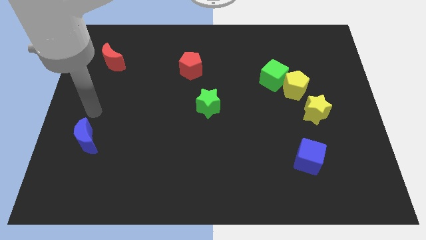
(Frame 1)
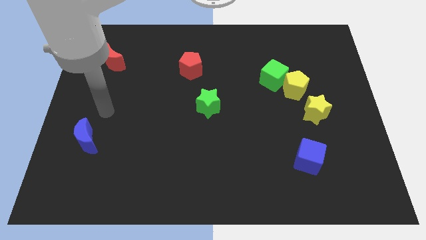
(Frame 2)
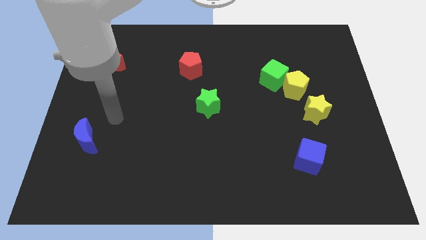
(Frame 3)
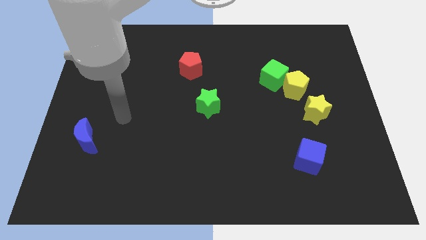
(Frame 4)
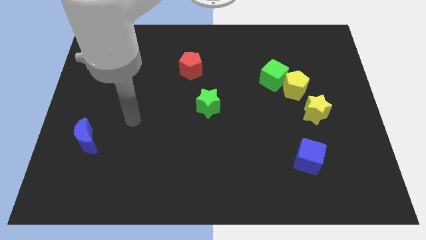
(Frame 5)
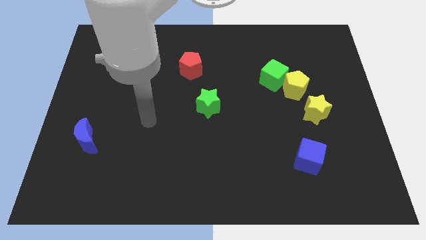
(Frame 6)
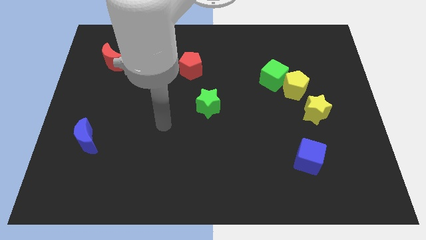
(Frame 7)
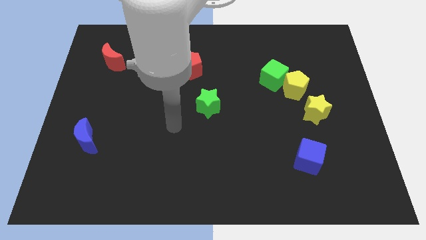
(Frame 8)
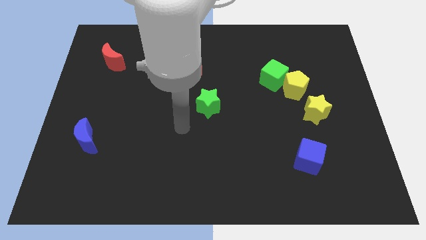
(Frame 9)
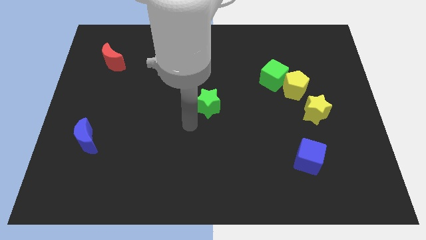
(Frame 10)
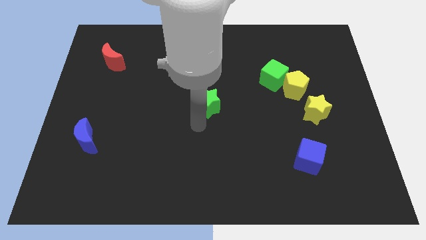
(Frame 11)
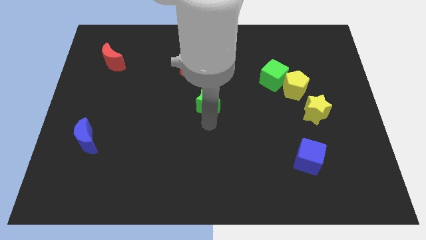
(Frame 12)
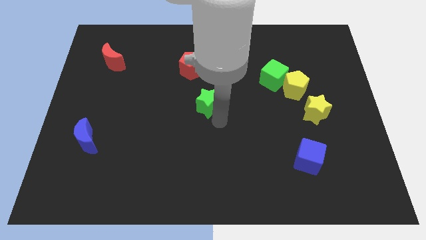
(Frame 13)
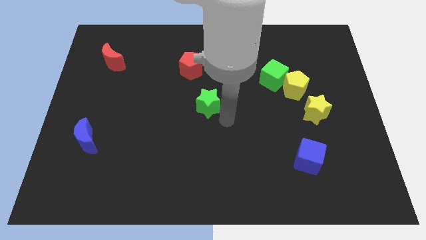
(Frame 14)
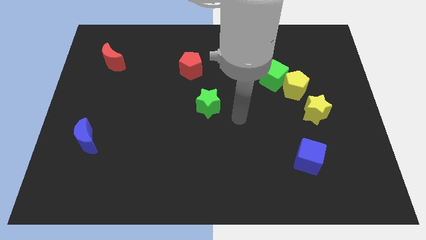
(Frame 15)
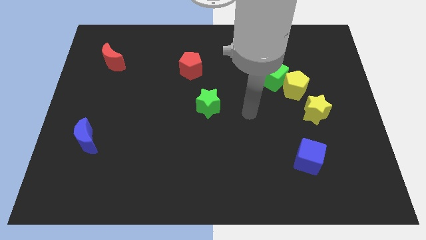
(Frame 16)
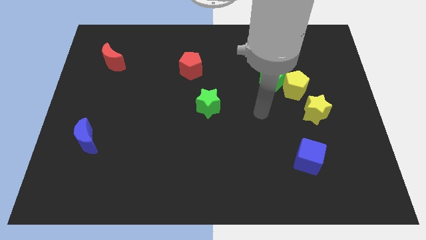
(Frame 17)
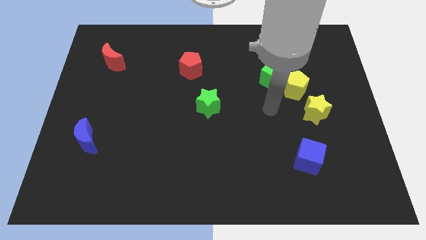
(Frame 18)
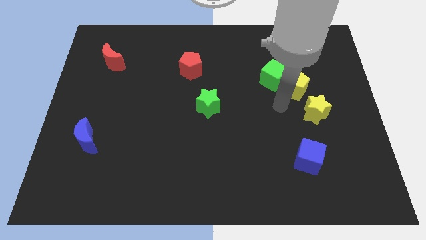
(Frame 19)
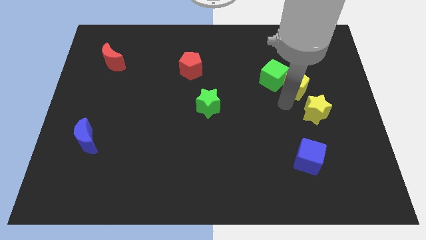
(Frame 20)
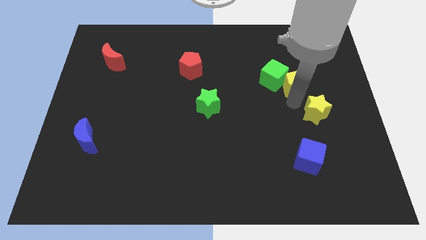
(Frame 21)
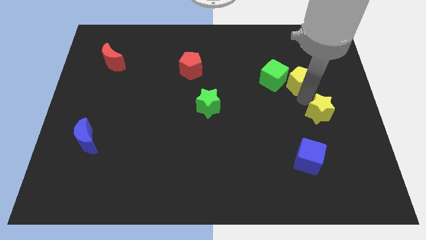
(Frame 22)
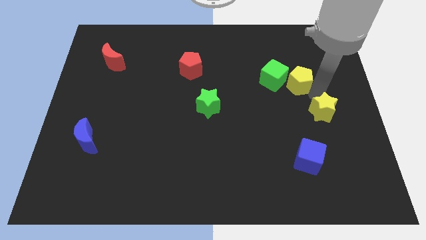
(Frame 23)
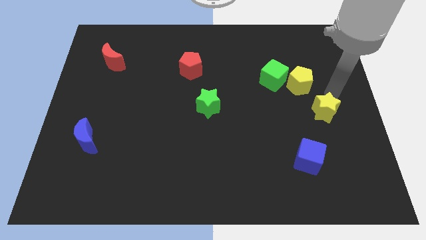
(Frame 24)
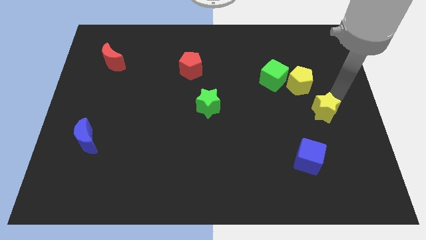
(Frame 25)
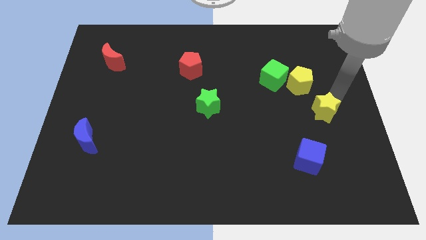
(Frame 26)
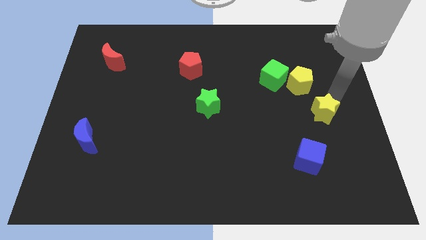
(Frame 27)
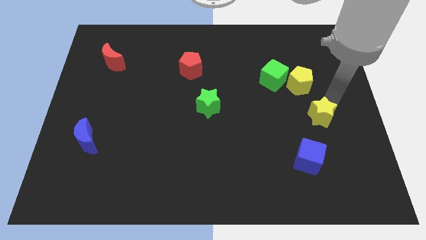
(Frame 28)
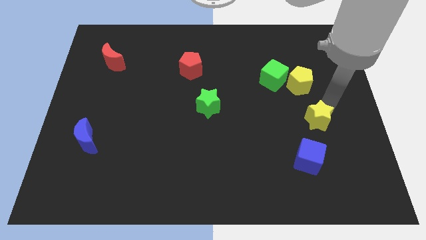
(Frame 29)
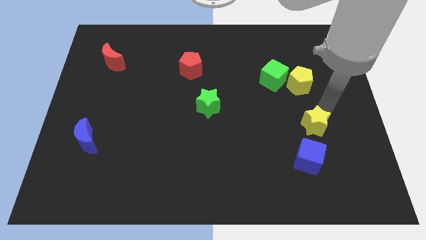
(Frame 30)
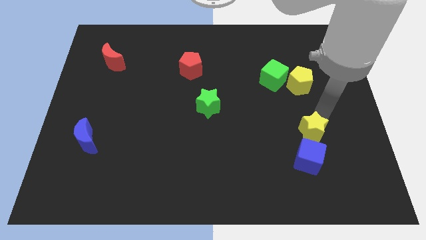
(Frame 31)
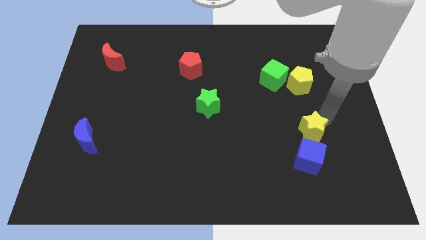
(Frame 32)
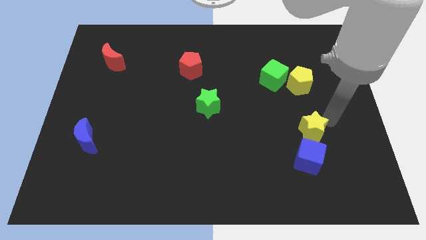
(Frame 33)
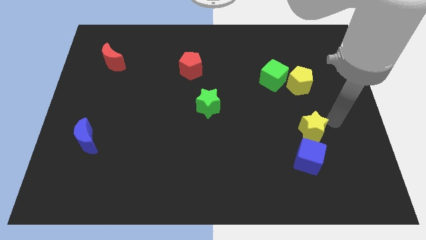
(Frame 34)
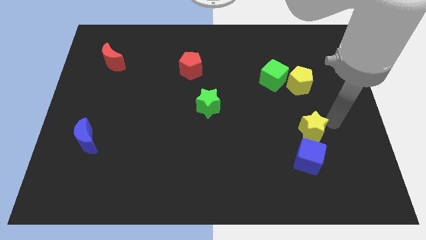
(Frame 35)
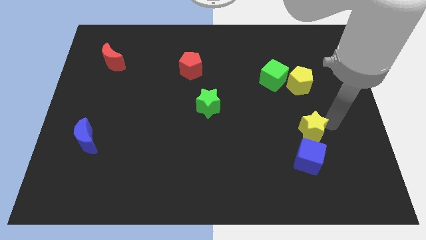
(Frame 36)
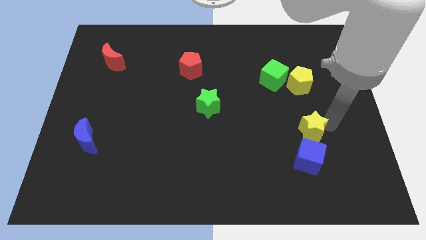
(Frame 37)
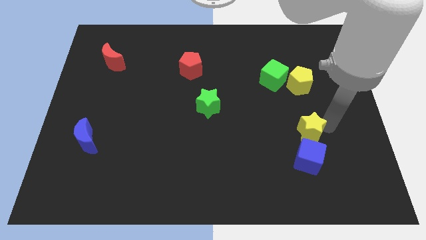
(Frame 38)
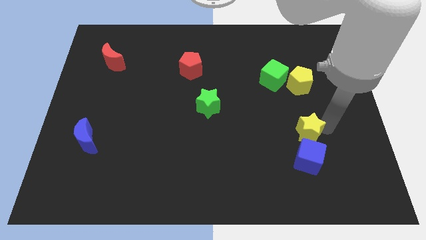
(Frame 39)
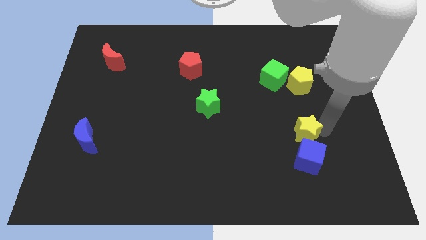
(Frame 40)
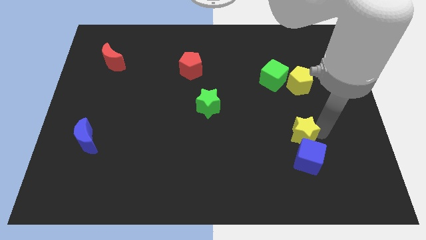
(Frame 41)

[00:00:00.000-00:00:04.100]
move the yellow star down and to the left diagonally a little

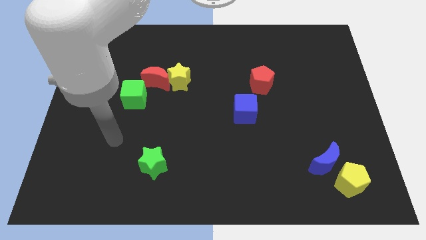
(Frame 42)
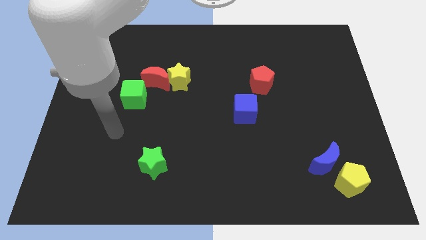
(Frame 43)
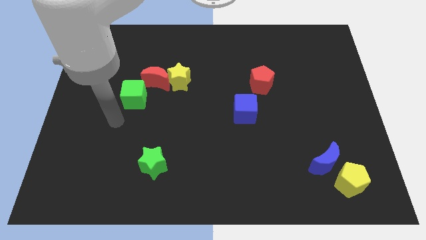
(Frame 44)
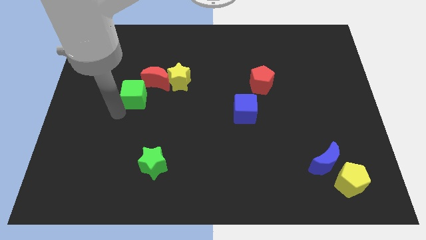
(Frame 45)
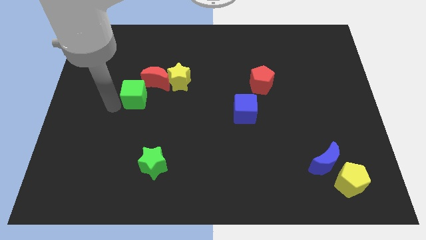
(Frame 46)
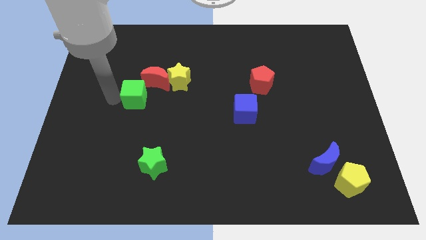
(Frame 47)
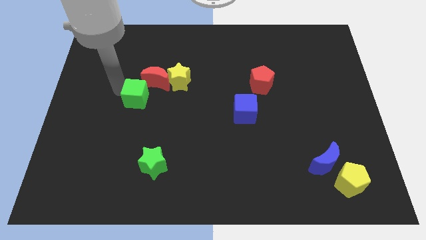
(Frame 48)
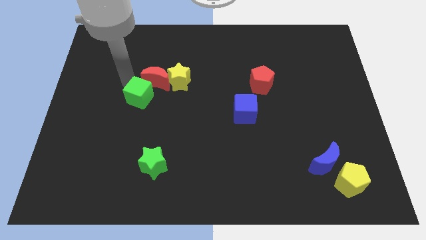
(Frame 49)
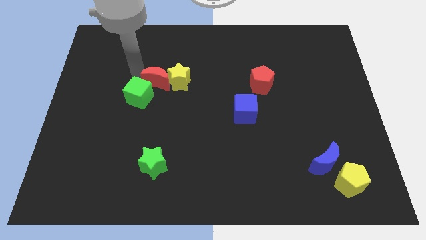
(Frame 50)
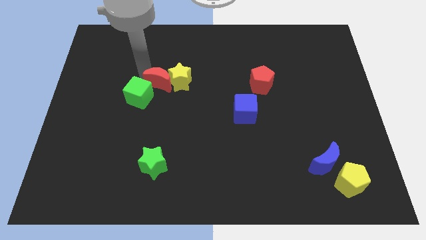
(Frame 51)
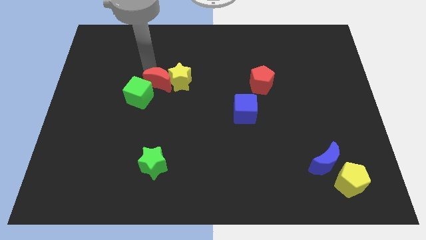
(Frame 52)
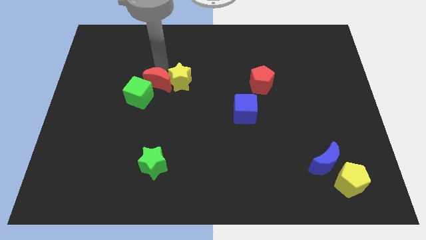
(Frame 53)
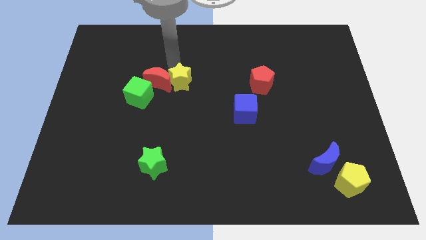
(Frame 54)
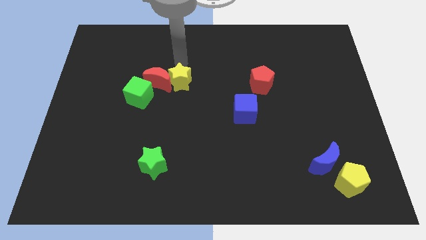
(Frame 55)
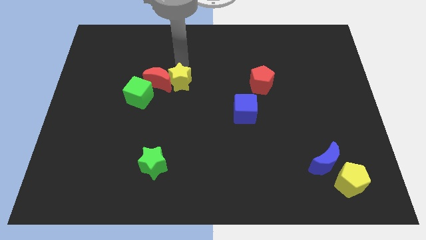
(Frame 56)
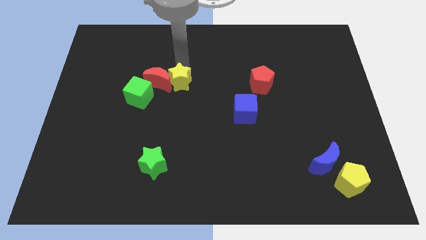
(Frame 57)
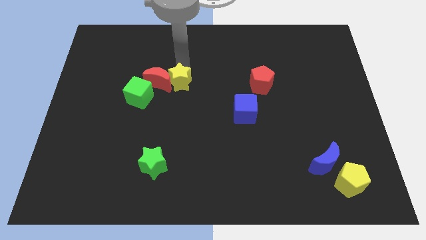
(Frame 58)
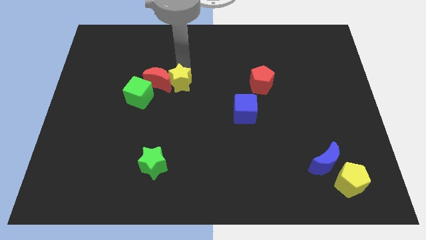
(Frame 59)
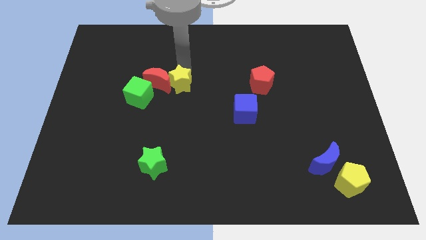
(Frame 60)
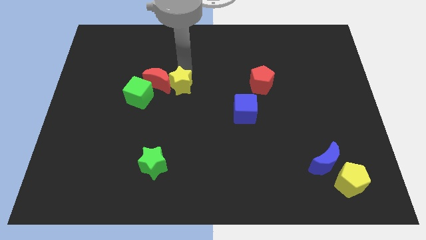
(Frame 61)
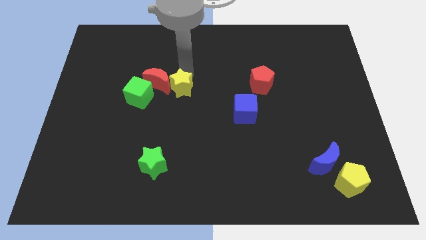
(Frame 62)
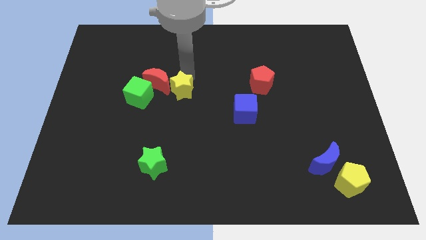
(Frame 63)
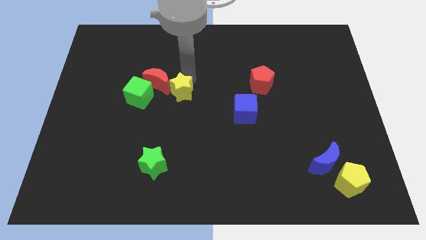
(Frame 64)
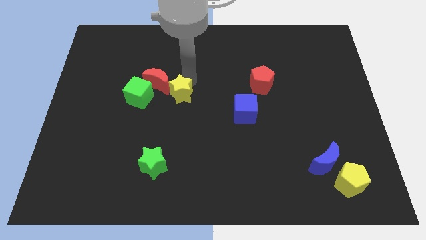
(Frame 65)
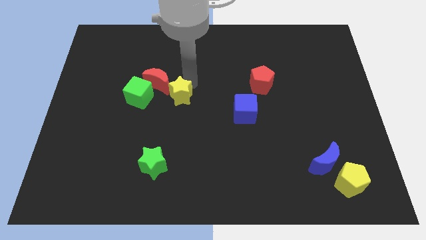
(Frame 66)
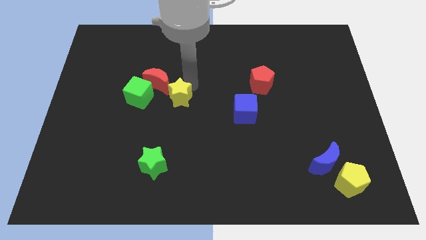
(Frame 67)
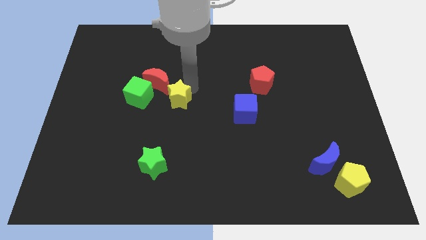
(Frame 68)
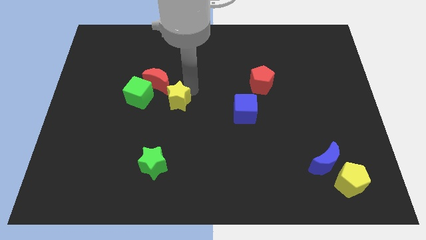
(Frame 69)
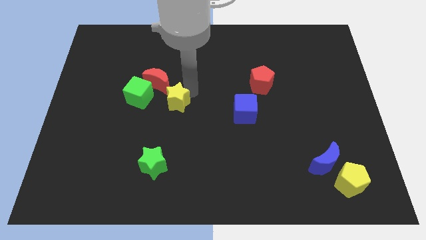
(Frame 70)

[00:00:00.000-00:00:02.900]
move the yellow star down a little

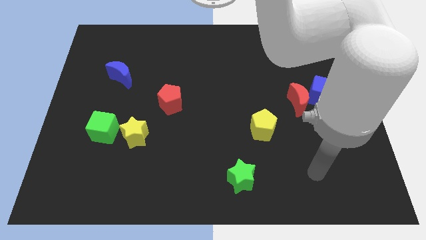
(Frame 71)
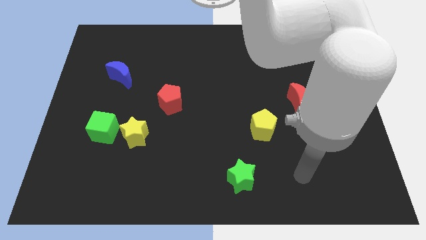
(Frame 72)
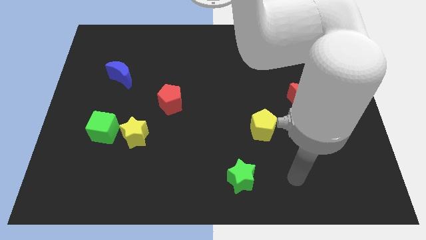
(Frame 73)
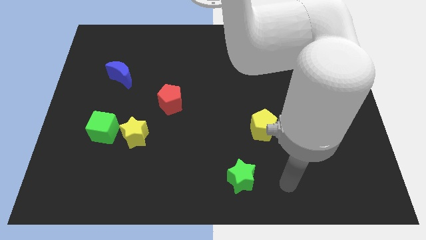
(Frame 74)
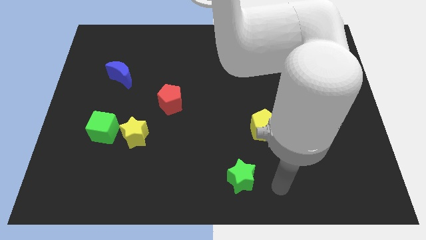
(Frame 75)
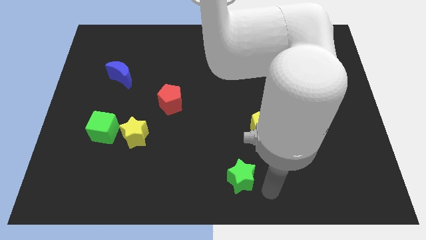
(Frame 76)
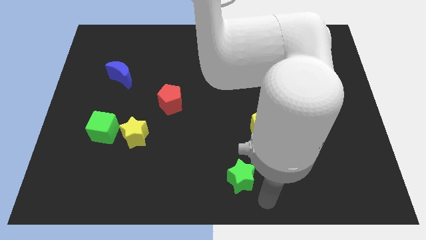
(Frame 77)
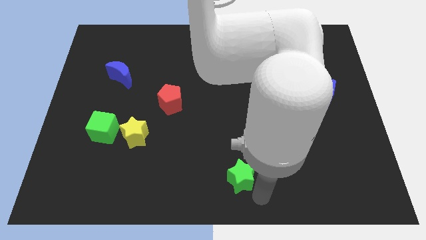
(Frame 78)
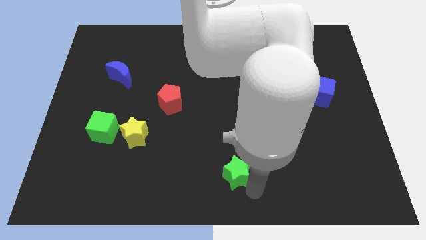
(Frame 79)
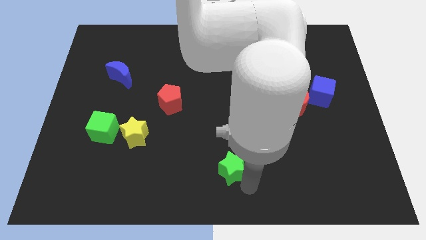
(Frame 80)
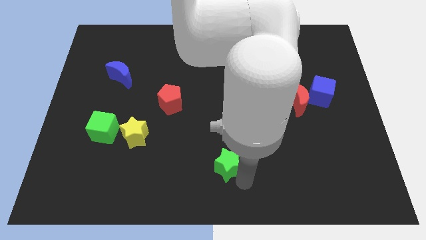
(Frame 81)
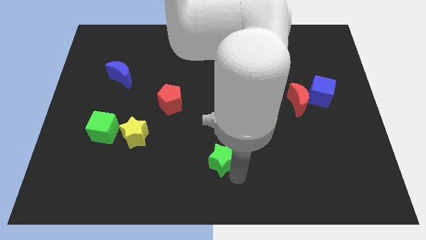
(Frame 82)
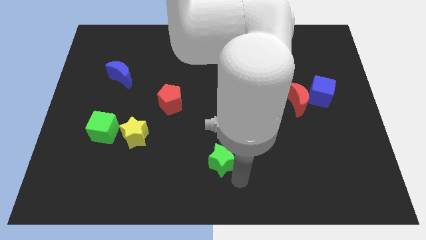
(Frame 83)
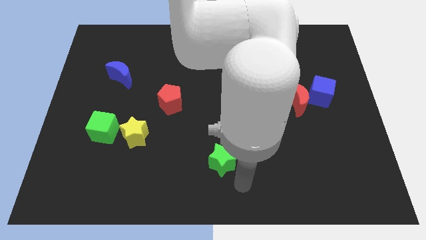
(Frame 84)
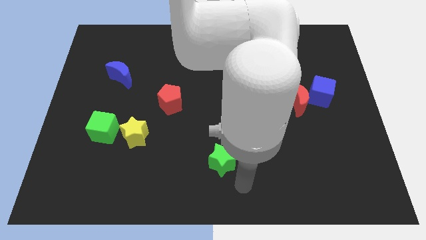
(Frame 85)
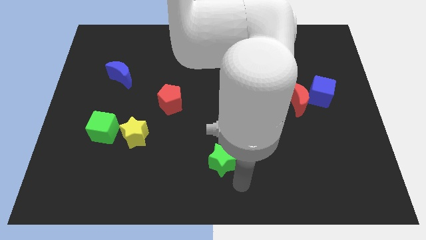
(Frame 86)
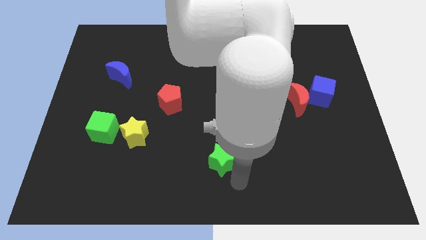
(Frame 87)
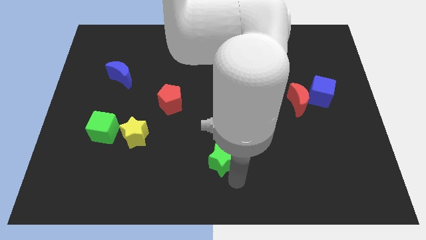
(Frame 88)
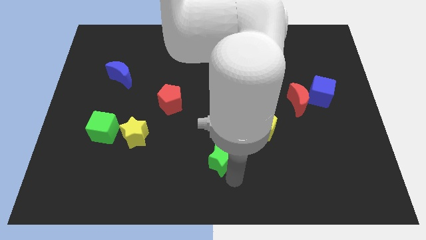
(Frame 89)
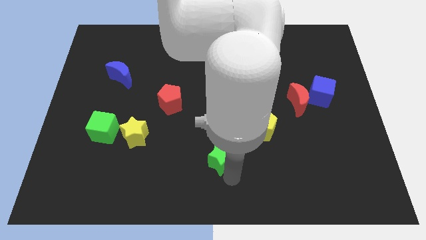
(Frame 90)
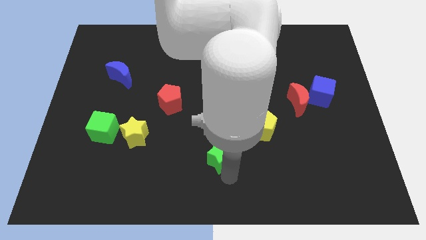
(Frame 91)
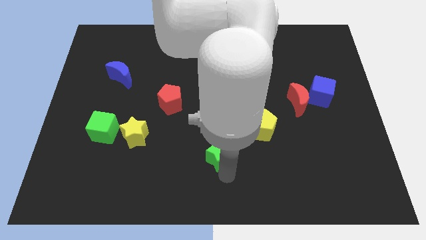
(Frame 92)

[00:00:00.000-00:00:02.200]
push the green star up and then left a bit
